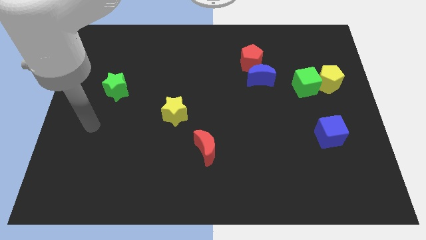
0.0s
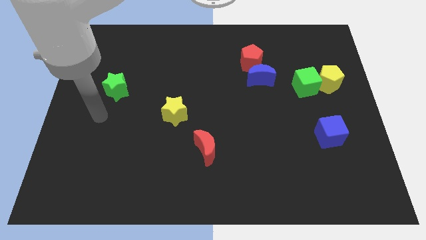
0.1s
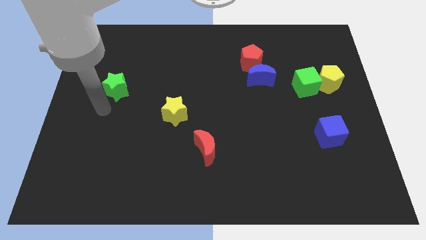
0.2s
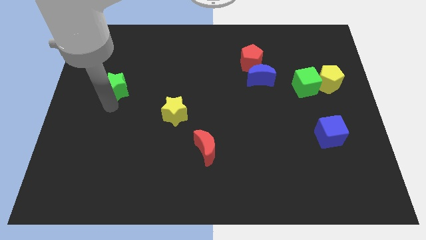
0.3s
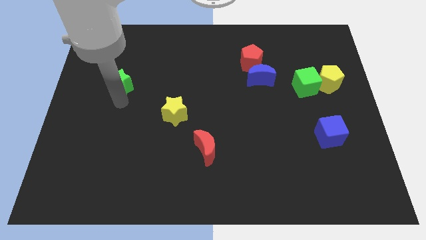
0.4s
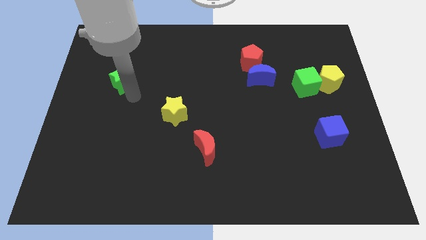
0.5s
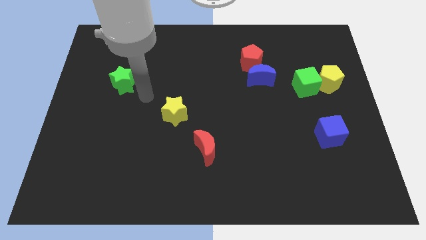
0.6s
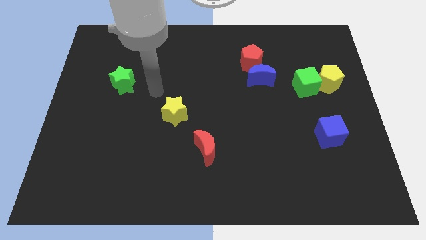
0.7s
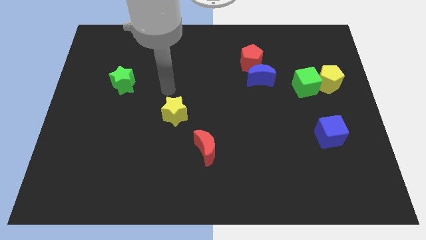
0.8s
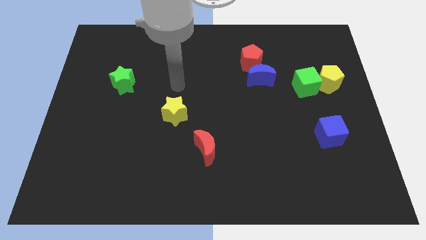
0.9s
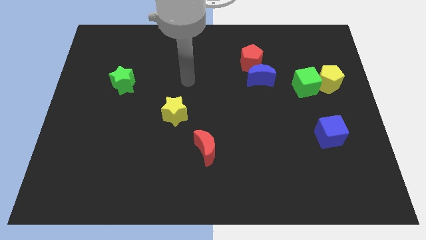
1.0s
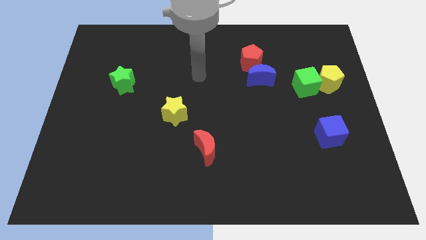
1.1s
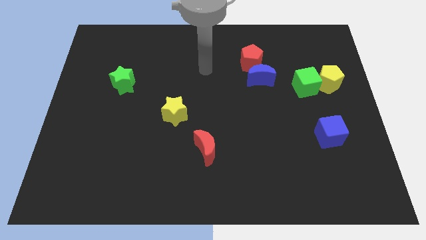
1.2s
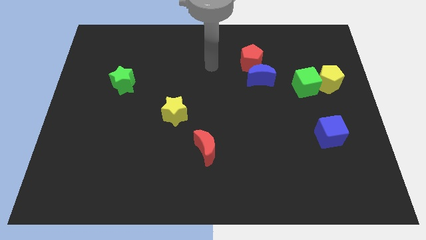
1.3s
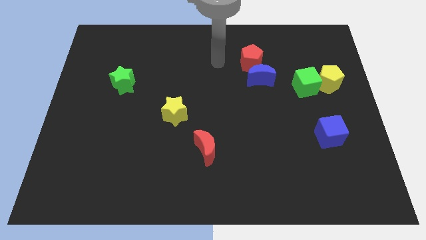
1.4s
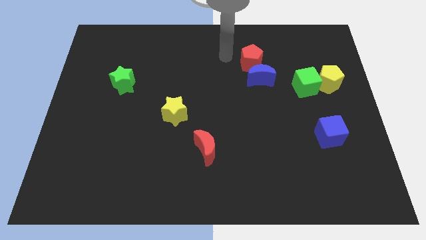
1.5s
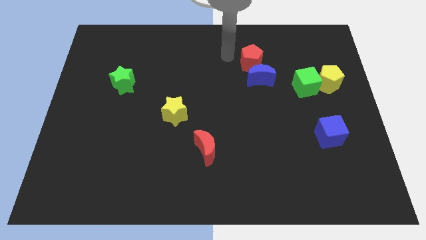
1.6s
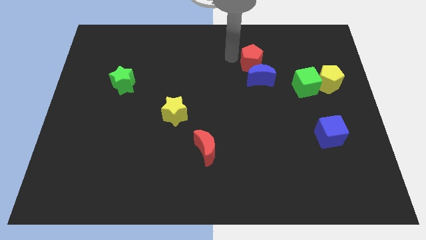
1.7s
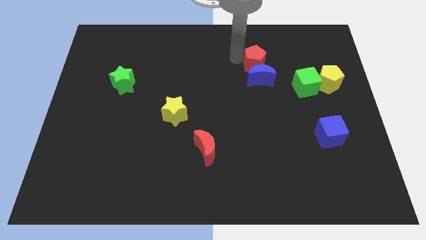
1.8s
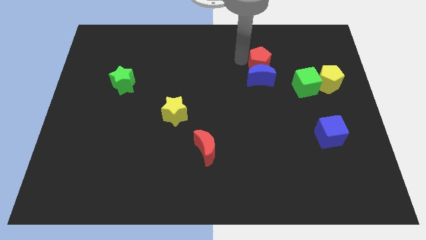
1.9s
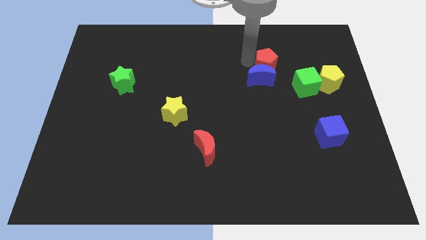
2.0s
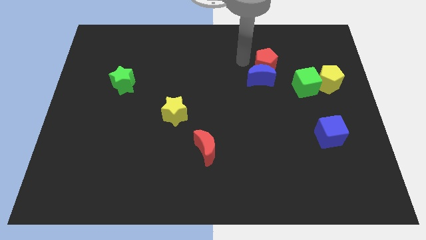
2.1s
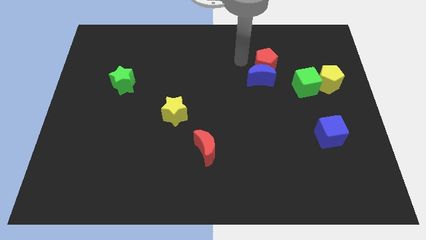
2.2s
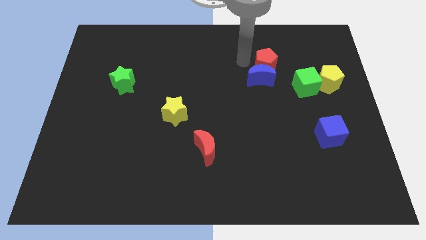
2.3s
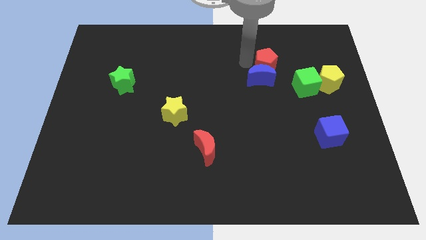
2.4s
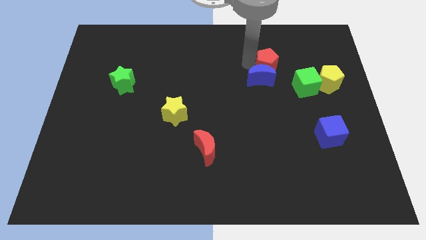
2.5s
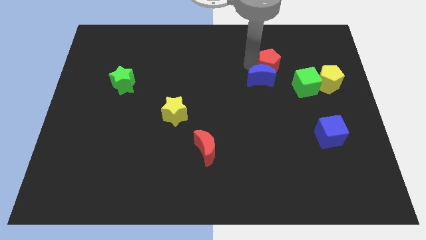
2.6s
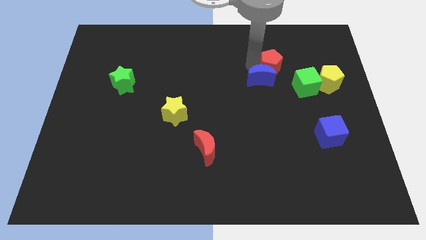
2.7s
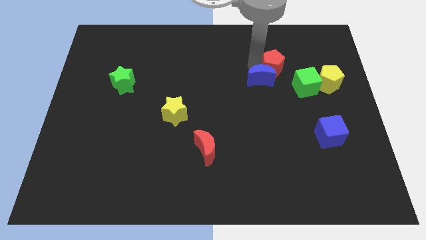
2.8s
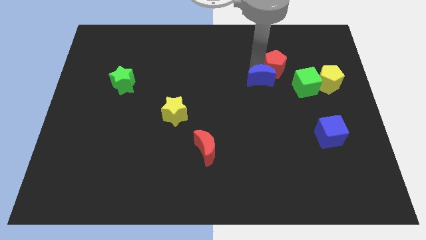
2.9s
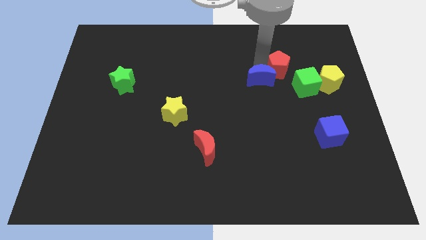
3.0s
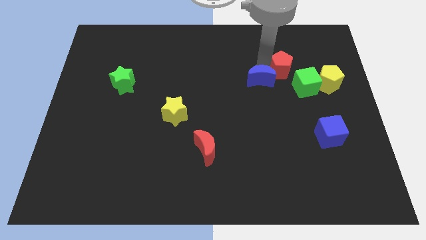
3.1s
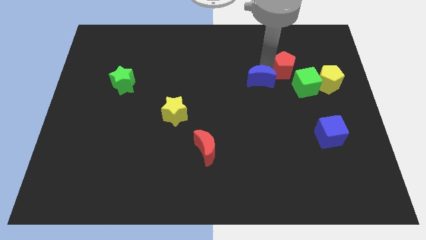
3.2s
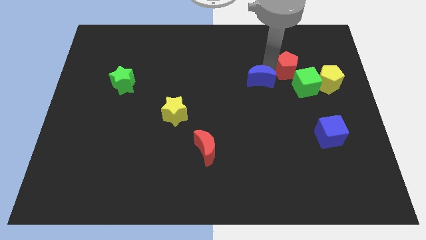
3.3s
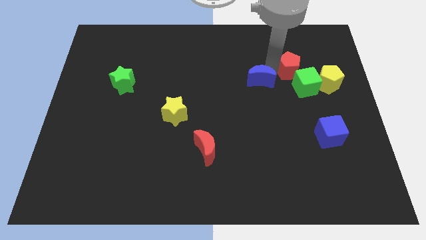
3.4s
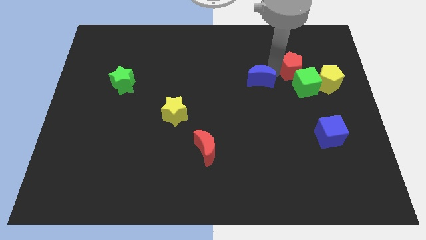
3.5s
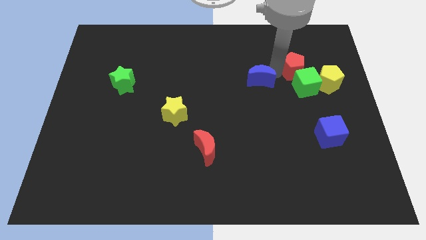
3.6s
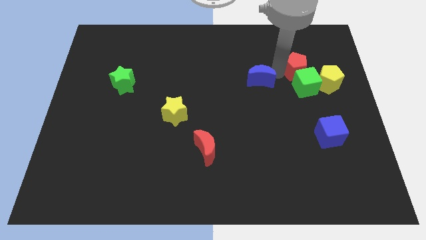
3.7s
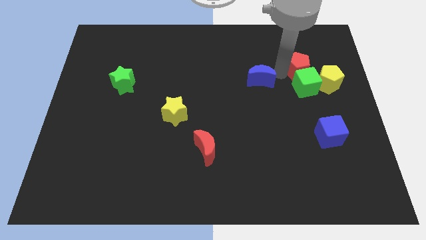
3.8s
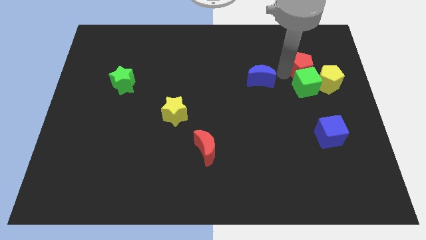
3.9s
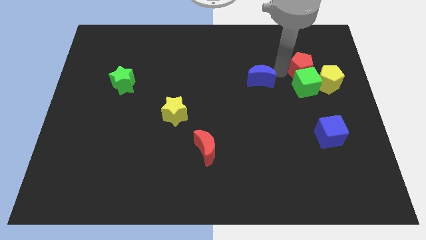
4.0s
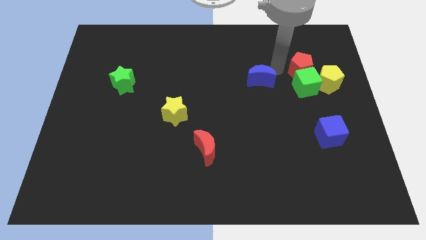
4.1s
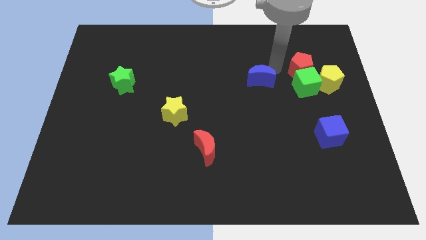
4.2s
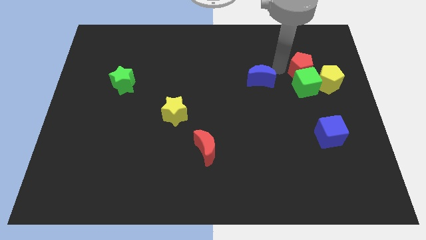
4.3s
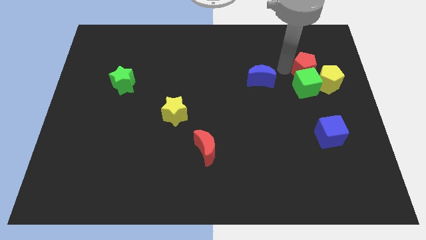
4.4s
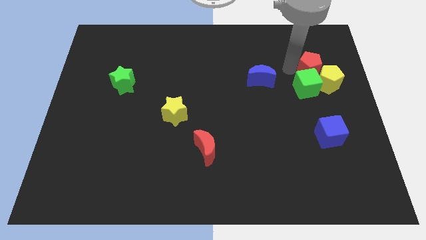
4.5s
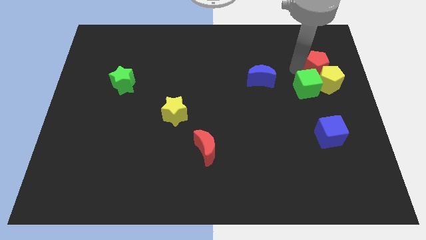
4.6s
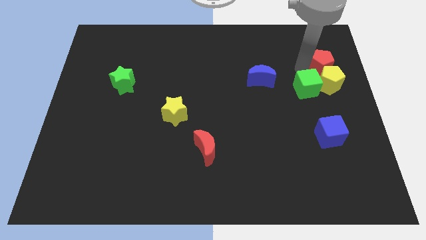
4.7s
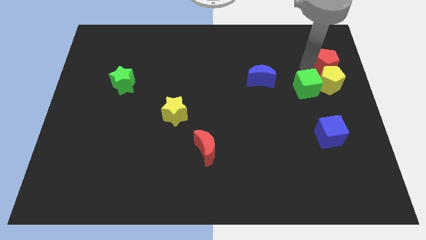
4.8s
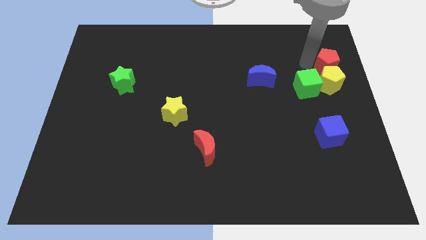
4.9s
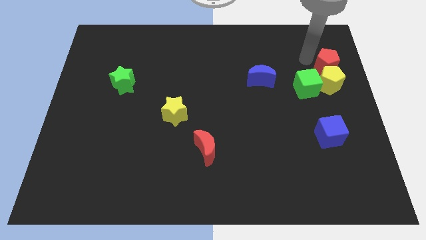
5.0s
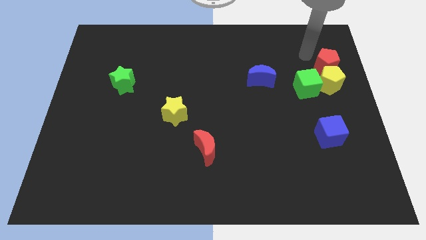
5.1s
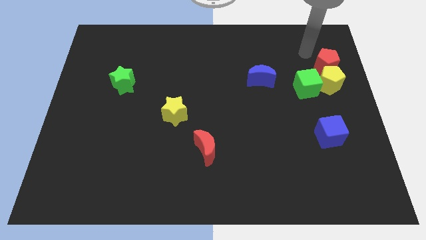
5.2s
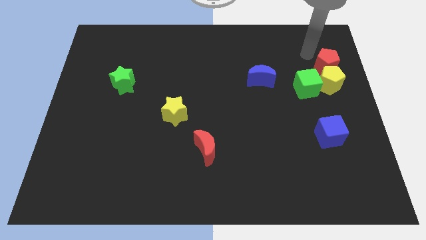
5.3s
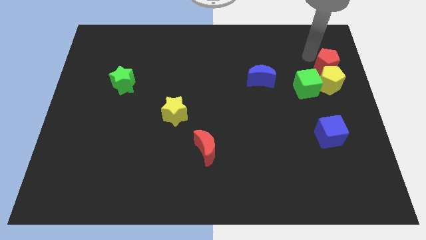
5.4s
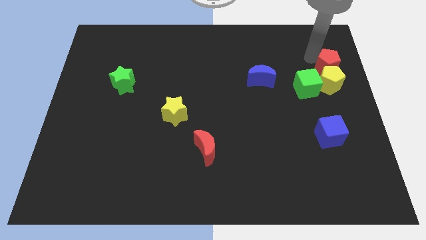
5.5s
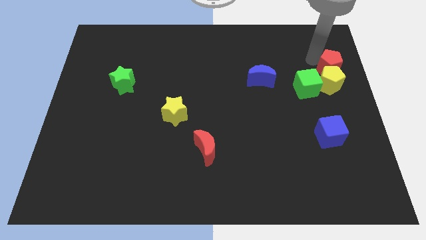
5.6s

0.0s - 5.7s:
slide the red pentagon to the right side of the board
